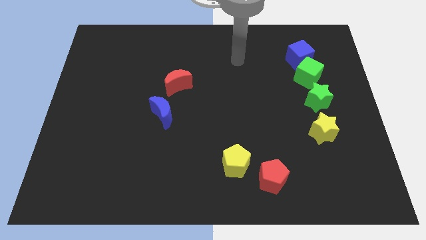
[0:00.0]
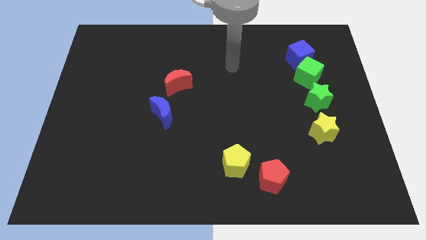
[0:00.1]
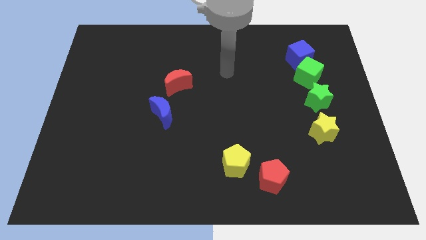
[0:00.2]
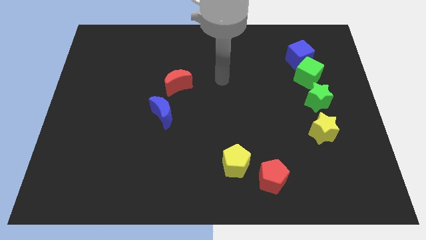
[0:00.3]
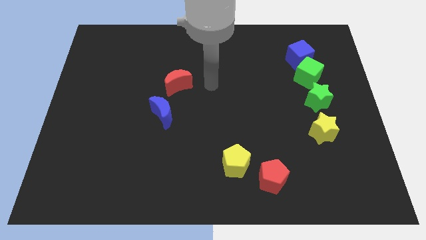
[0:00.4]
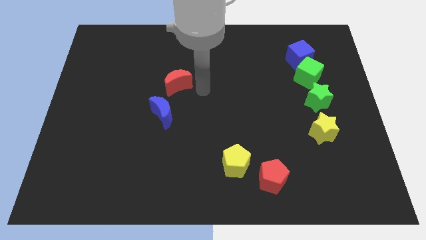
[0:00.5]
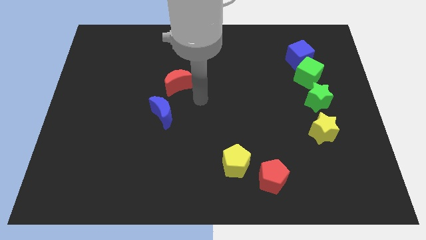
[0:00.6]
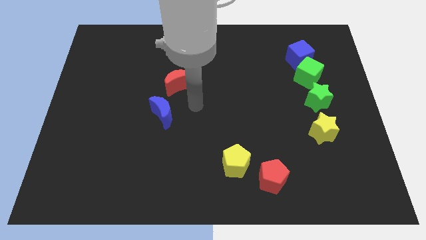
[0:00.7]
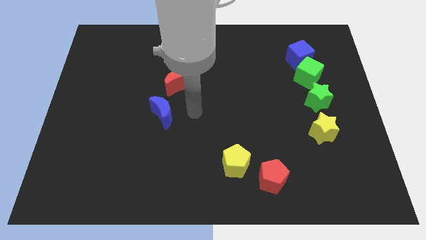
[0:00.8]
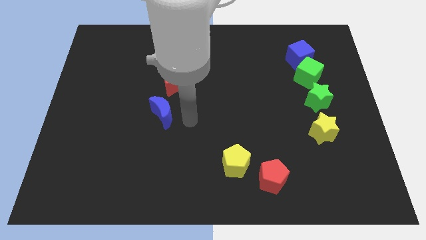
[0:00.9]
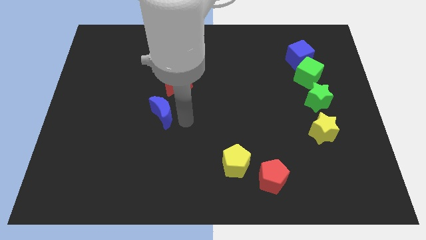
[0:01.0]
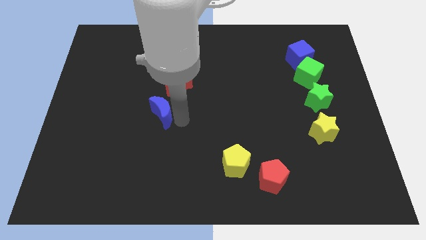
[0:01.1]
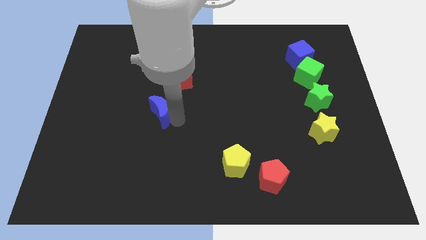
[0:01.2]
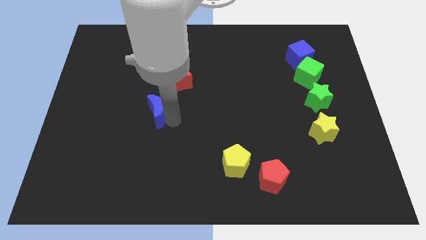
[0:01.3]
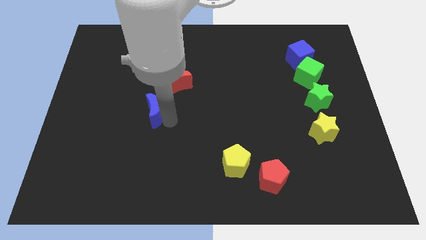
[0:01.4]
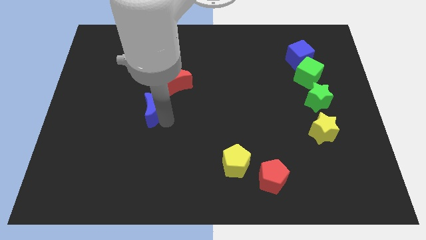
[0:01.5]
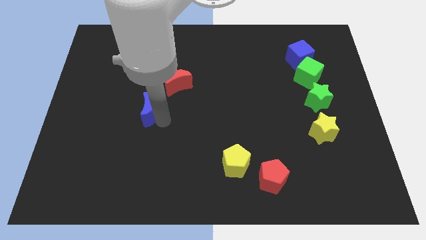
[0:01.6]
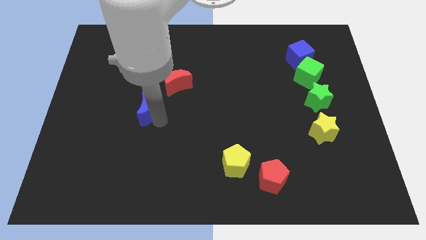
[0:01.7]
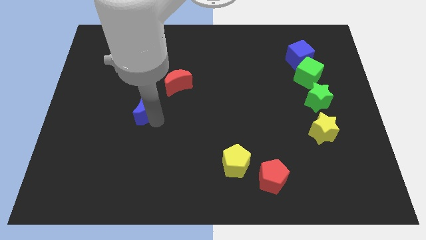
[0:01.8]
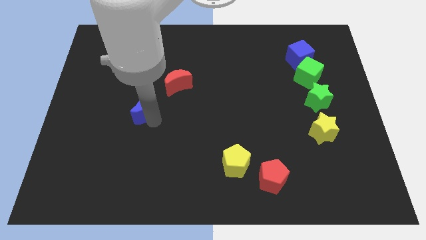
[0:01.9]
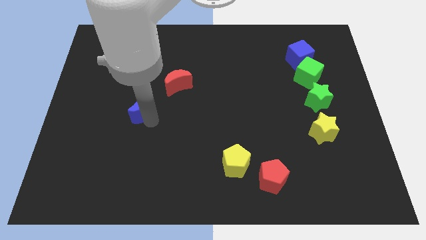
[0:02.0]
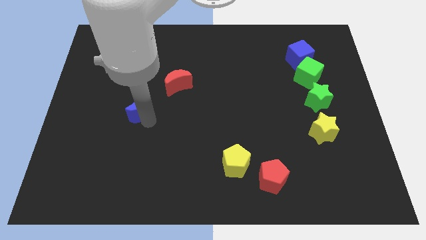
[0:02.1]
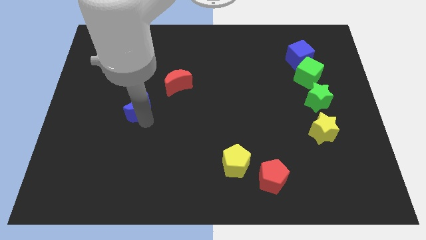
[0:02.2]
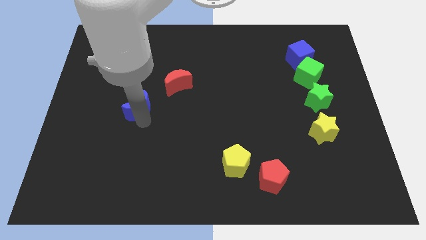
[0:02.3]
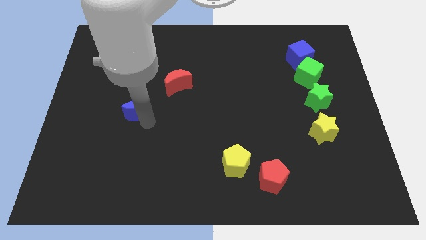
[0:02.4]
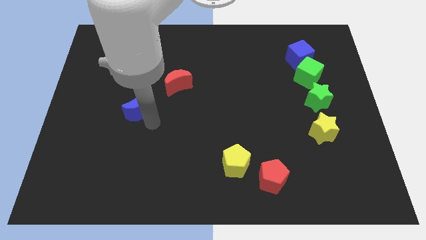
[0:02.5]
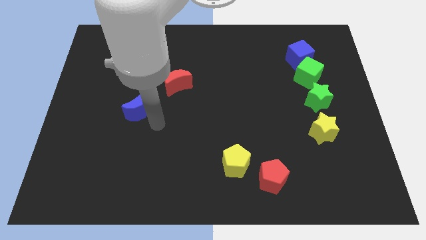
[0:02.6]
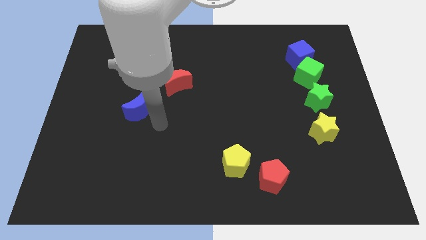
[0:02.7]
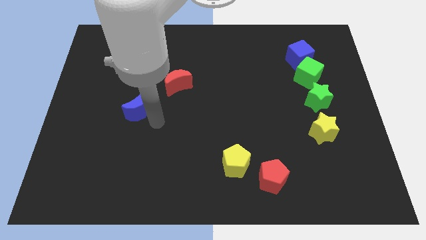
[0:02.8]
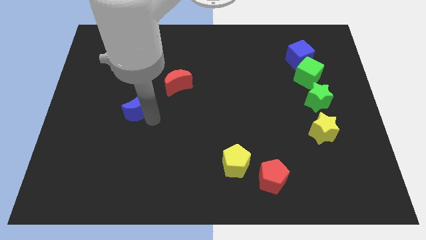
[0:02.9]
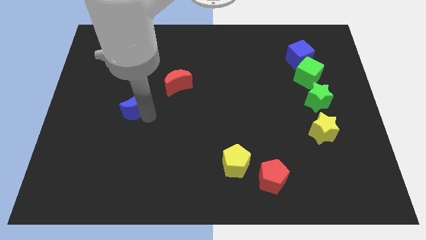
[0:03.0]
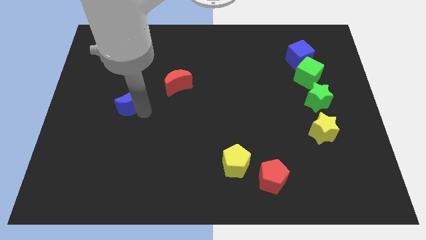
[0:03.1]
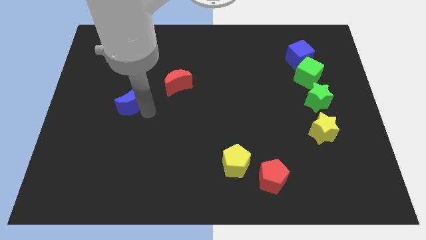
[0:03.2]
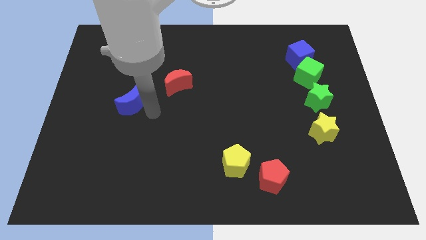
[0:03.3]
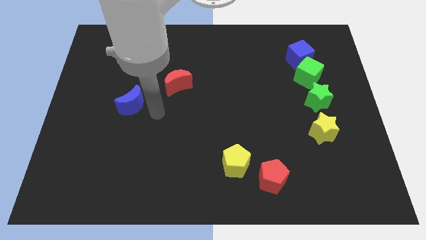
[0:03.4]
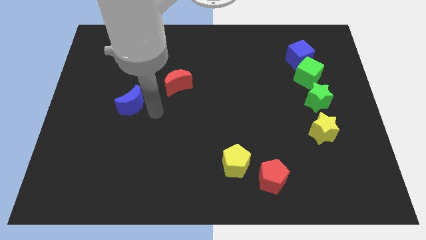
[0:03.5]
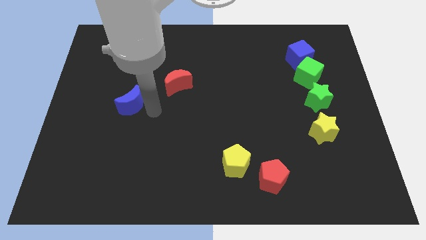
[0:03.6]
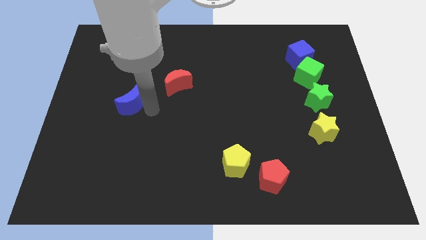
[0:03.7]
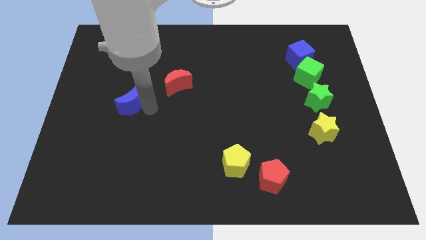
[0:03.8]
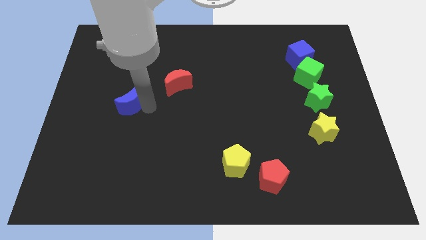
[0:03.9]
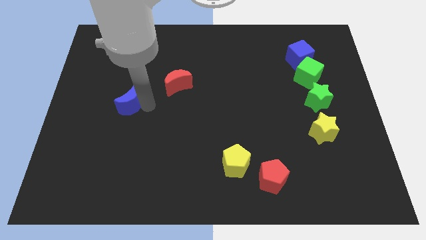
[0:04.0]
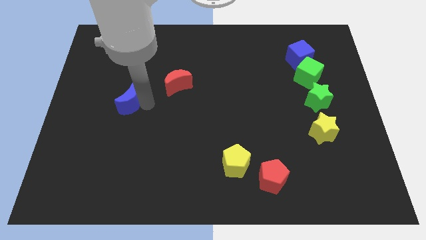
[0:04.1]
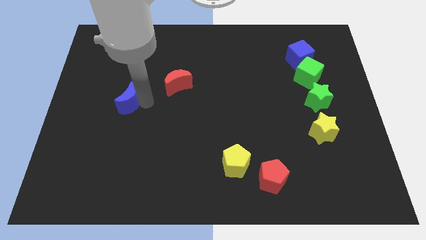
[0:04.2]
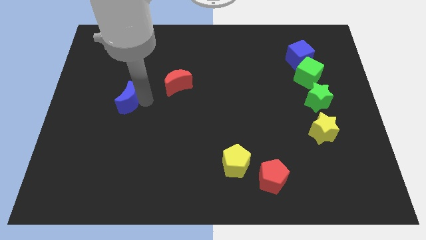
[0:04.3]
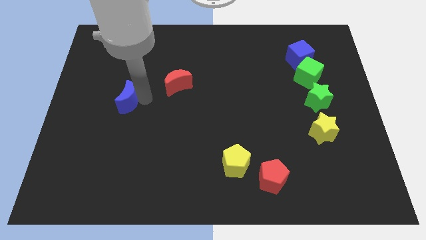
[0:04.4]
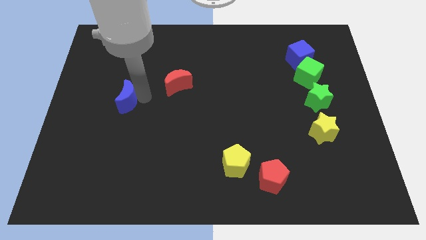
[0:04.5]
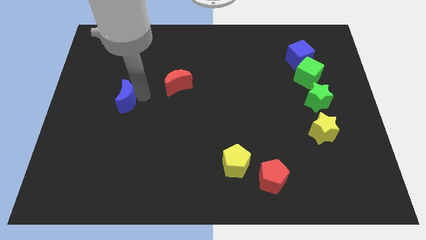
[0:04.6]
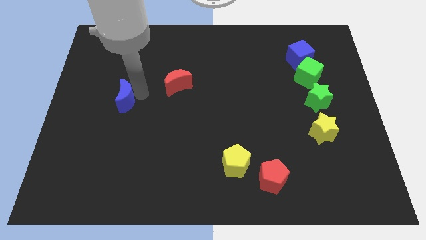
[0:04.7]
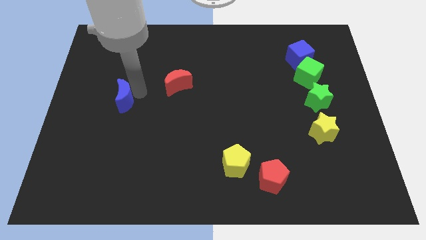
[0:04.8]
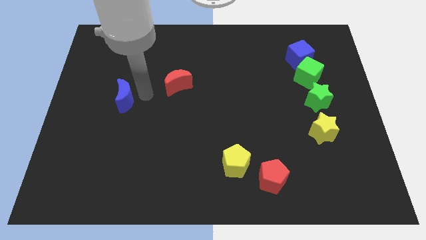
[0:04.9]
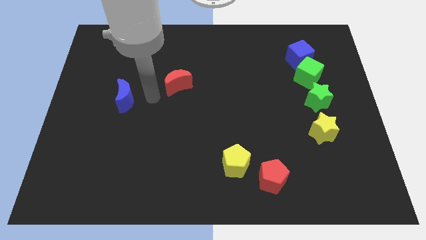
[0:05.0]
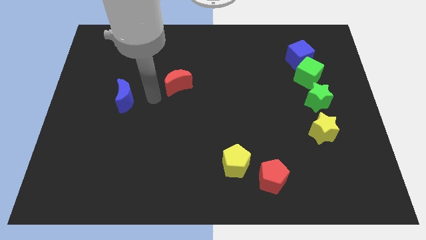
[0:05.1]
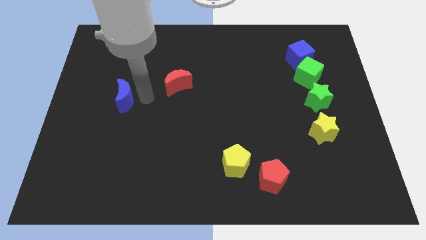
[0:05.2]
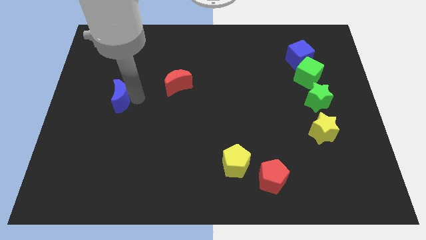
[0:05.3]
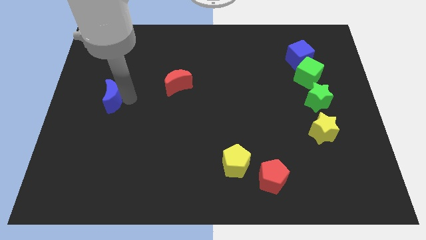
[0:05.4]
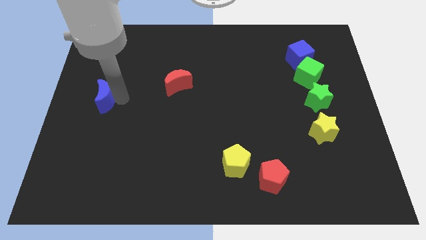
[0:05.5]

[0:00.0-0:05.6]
put the blue moon to the left side of the board

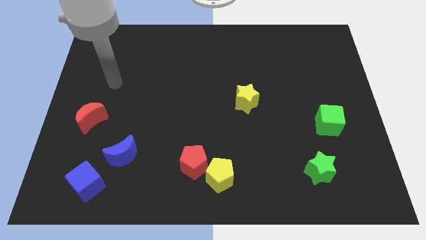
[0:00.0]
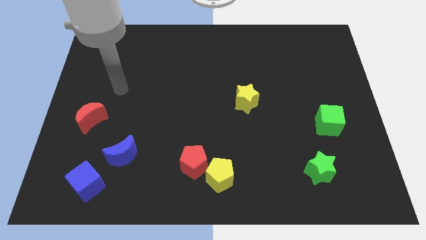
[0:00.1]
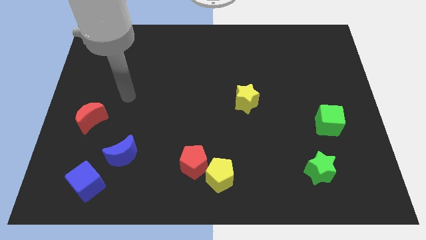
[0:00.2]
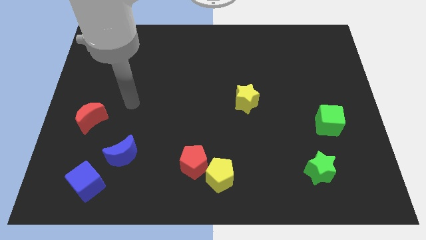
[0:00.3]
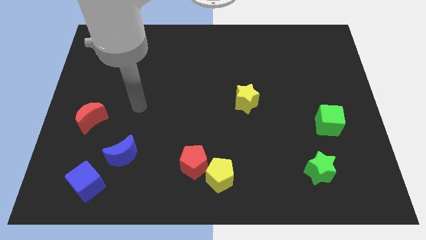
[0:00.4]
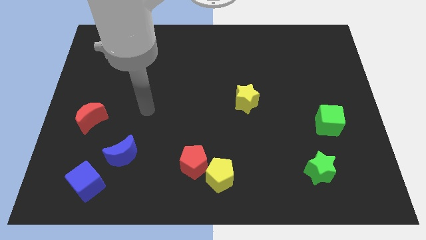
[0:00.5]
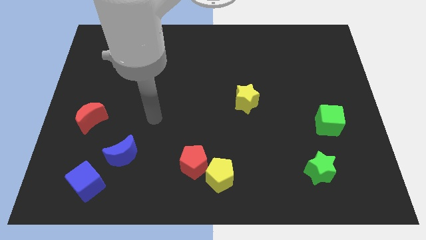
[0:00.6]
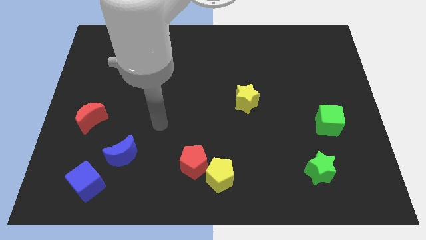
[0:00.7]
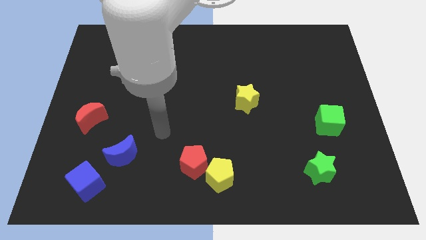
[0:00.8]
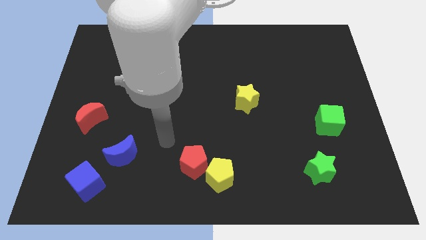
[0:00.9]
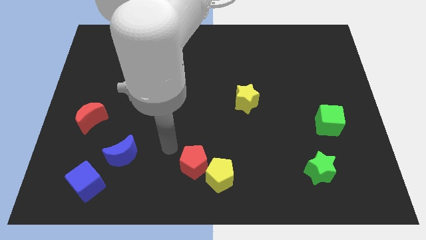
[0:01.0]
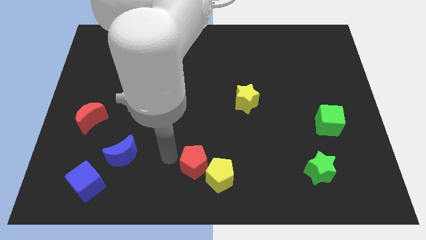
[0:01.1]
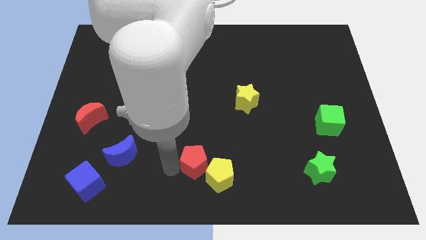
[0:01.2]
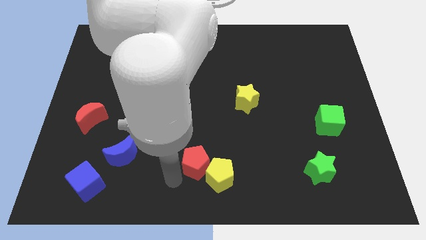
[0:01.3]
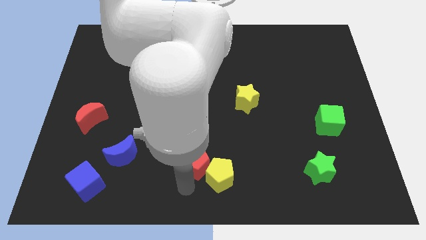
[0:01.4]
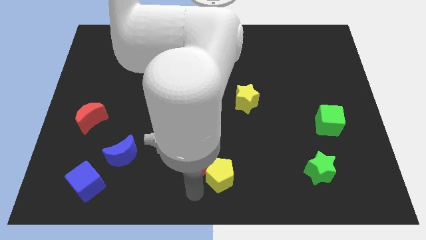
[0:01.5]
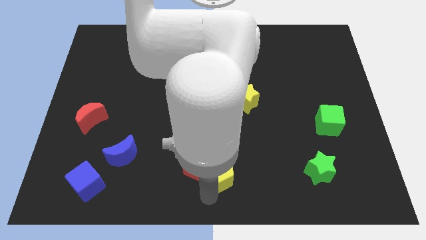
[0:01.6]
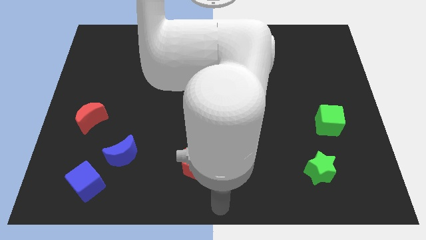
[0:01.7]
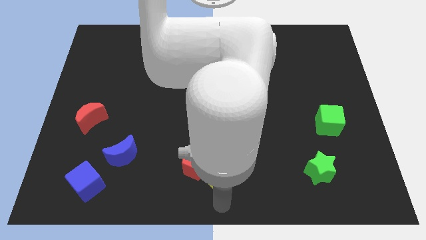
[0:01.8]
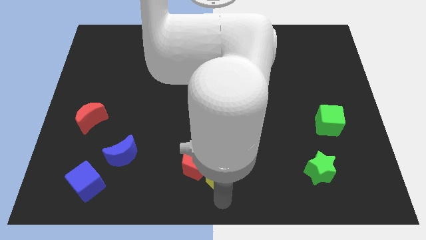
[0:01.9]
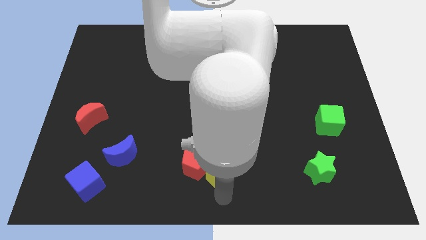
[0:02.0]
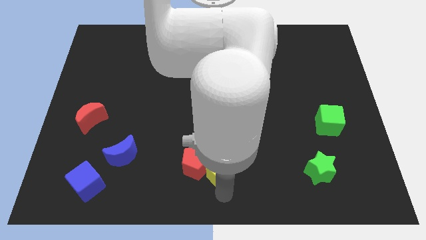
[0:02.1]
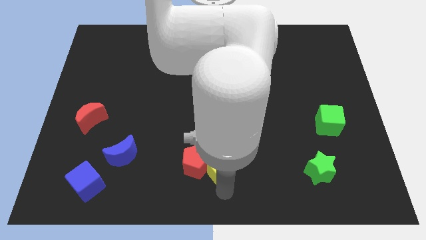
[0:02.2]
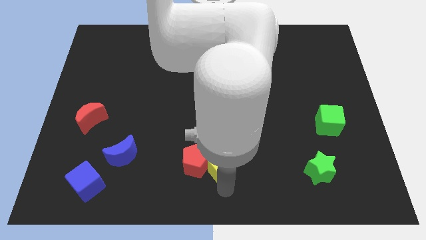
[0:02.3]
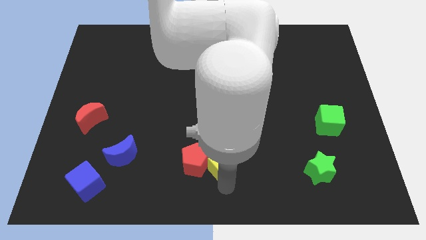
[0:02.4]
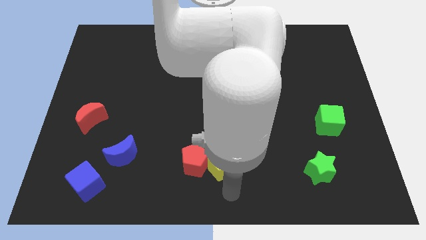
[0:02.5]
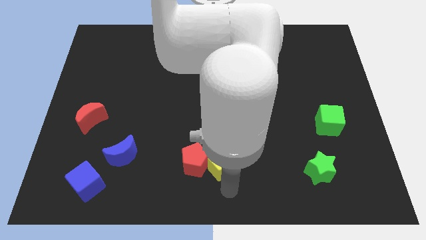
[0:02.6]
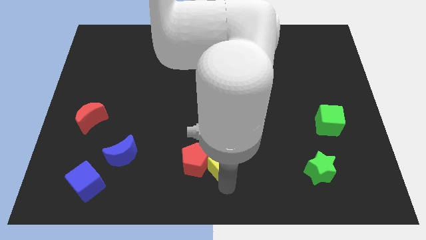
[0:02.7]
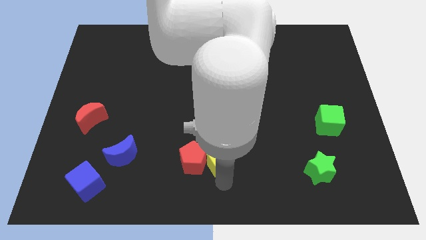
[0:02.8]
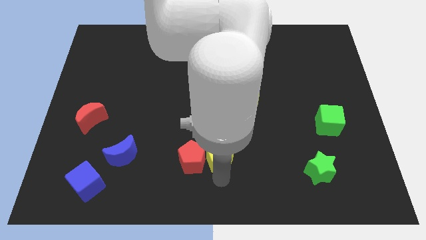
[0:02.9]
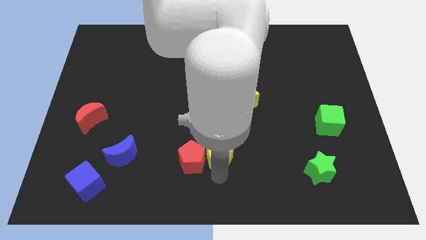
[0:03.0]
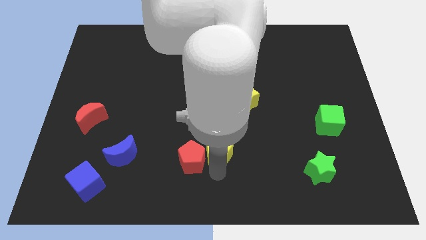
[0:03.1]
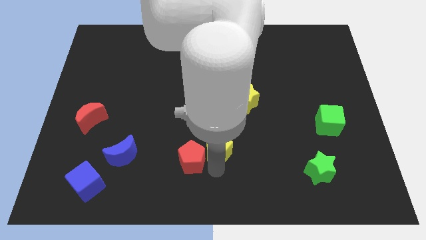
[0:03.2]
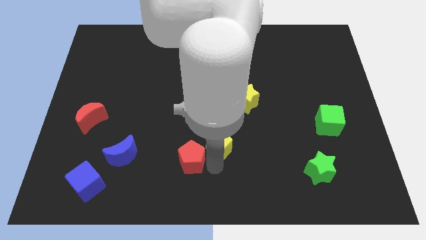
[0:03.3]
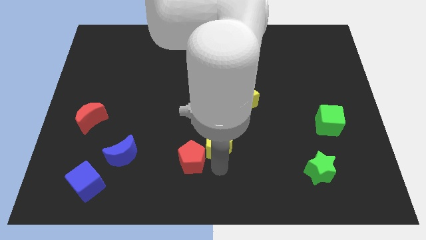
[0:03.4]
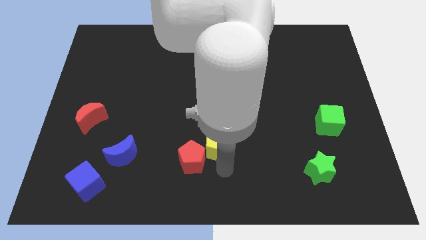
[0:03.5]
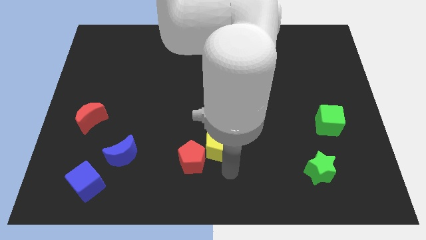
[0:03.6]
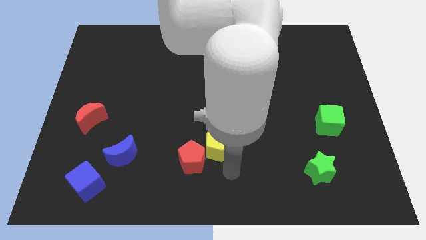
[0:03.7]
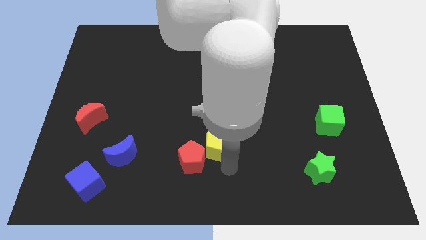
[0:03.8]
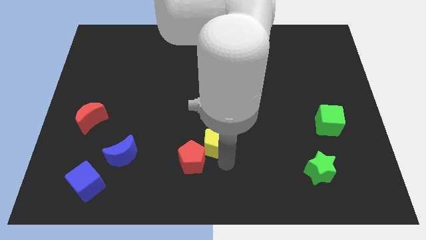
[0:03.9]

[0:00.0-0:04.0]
slide the yellow pentagon to the center of the board
